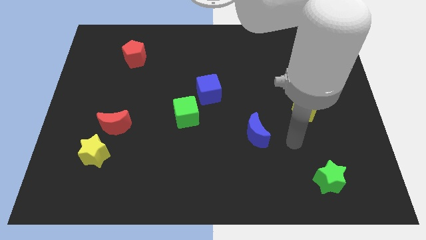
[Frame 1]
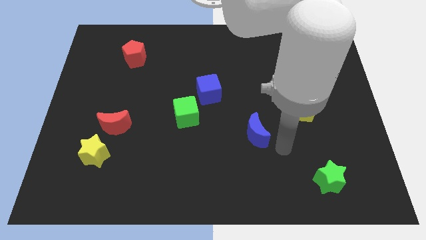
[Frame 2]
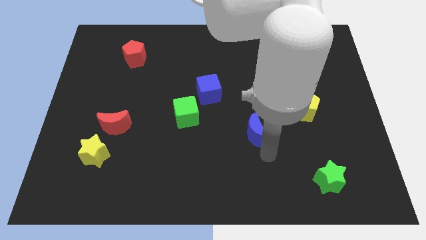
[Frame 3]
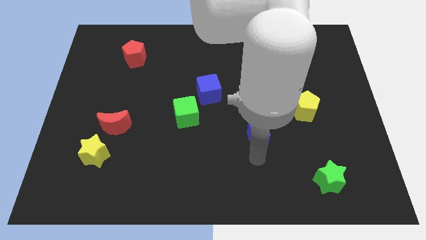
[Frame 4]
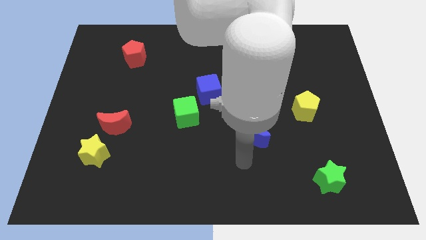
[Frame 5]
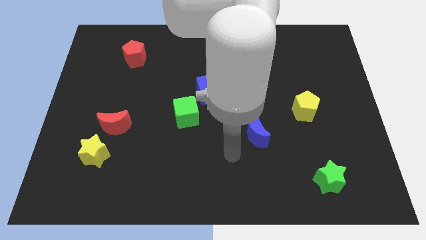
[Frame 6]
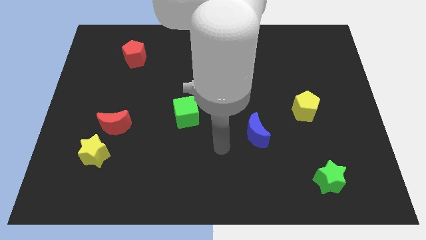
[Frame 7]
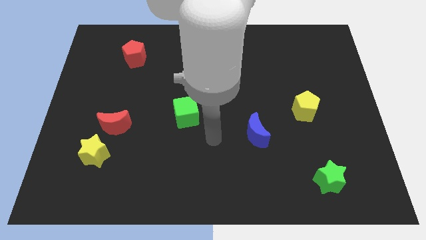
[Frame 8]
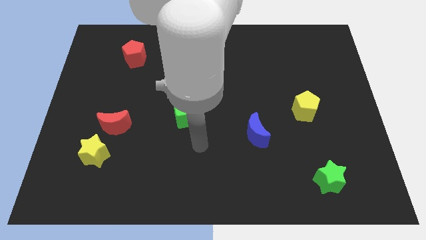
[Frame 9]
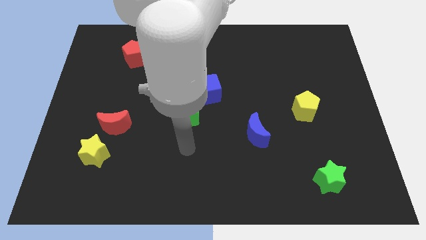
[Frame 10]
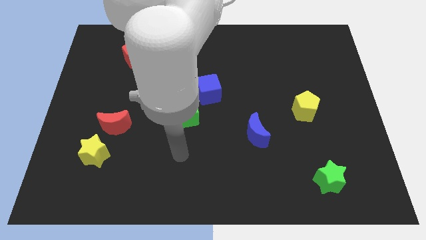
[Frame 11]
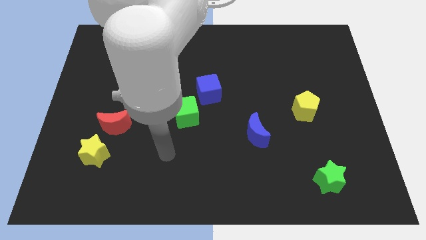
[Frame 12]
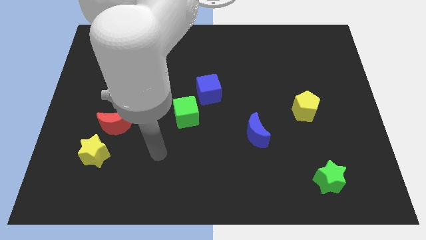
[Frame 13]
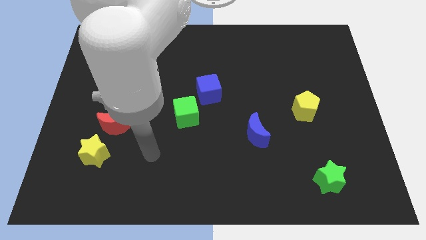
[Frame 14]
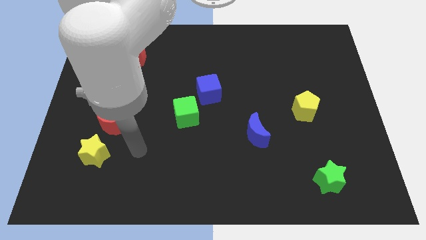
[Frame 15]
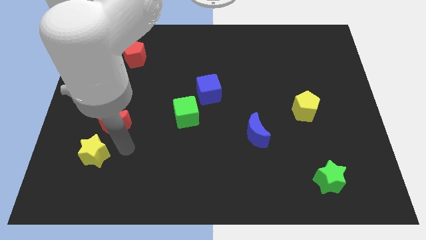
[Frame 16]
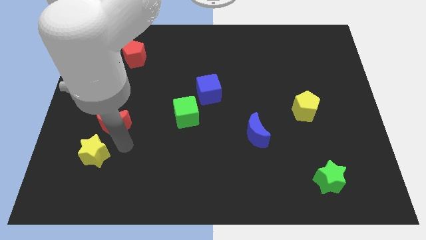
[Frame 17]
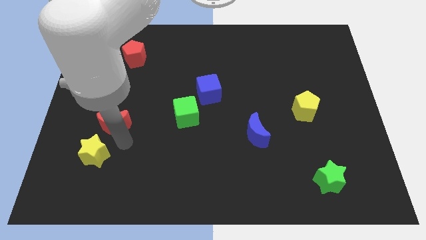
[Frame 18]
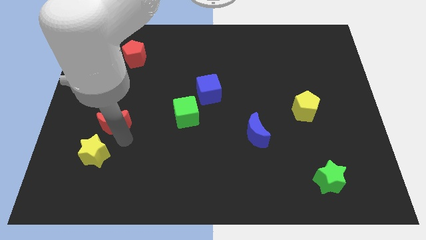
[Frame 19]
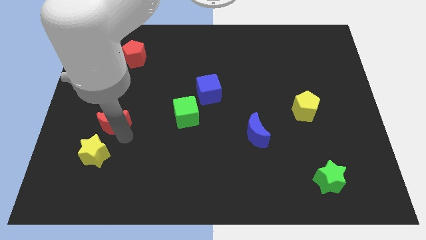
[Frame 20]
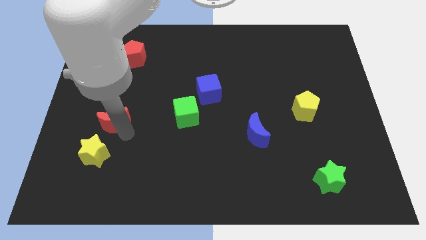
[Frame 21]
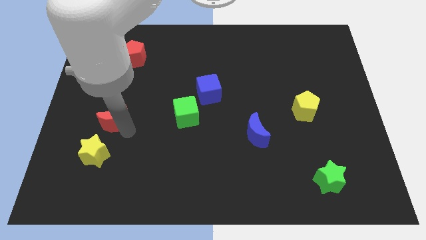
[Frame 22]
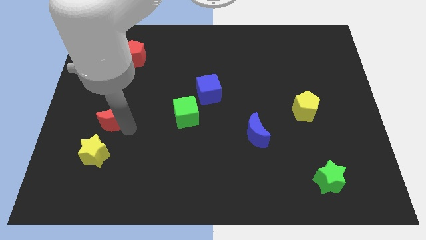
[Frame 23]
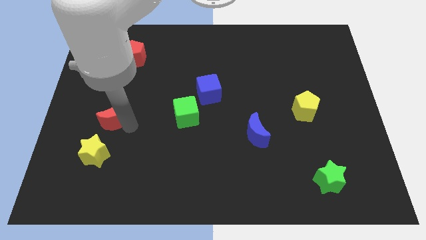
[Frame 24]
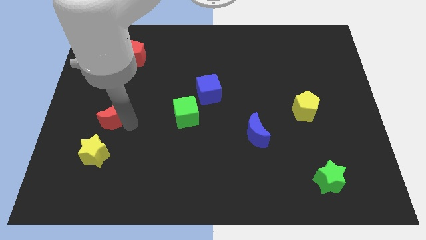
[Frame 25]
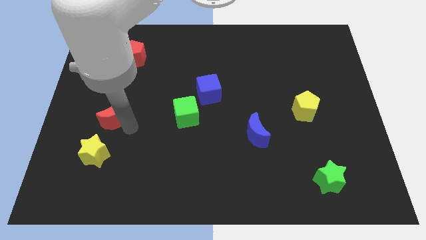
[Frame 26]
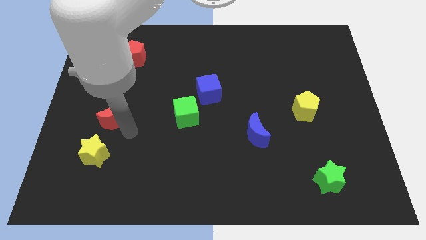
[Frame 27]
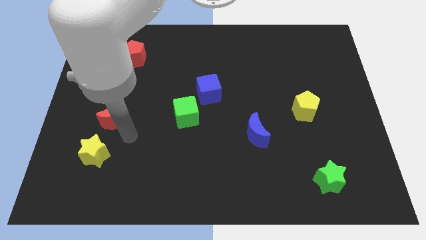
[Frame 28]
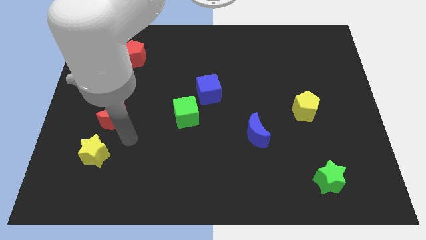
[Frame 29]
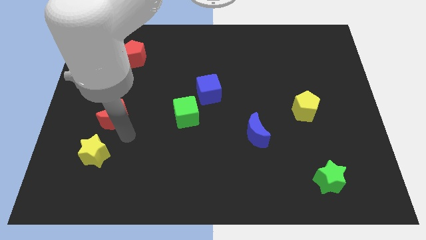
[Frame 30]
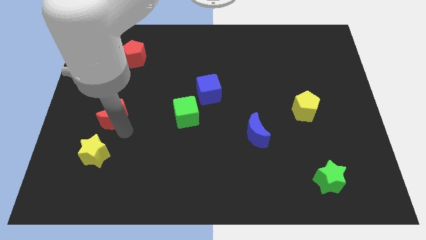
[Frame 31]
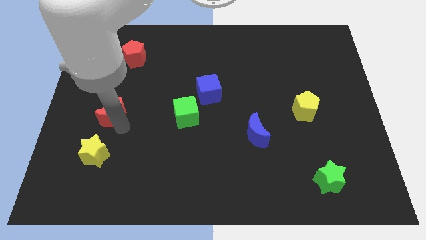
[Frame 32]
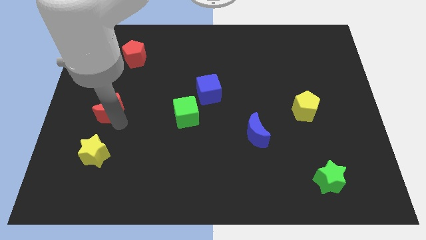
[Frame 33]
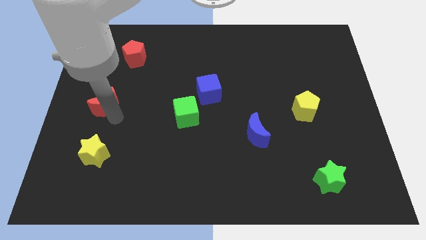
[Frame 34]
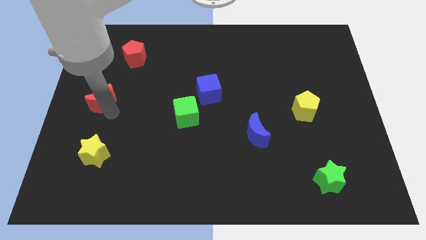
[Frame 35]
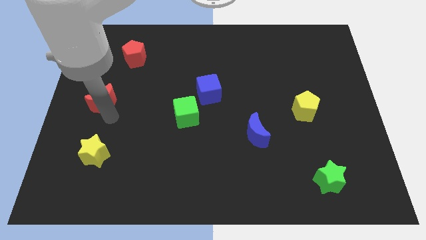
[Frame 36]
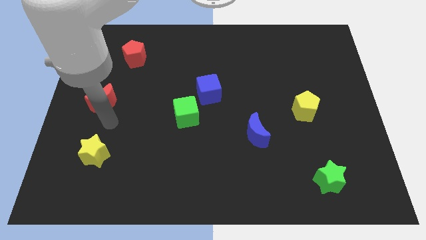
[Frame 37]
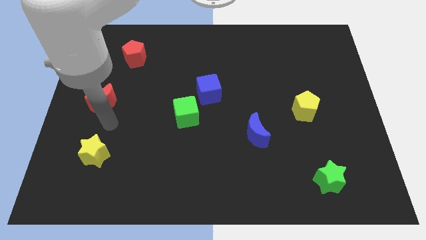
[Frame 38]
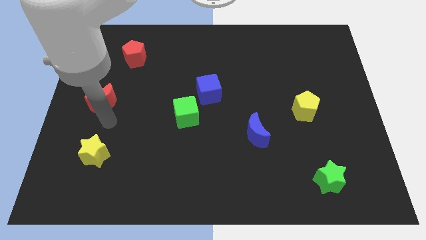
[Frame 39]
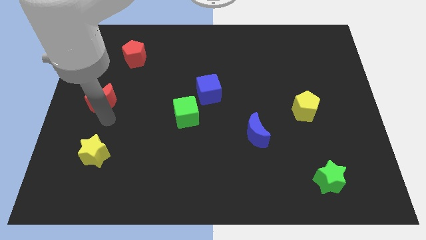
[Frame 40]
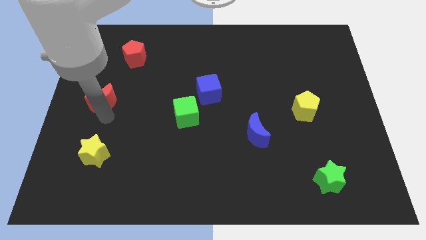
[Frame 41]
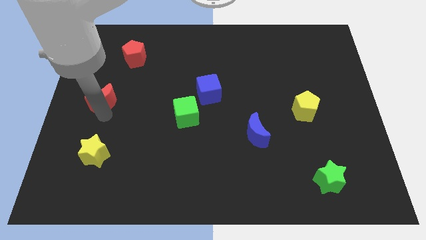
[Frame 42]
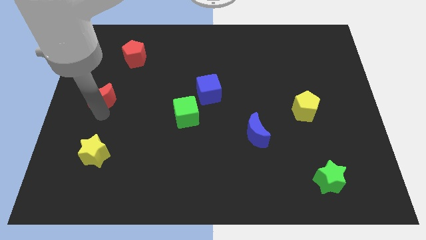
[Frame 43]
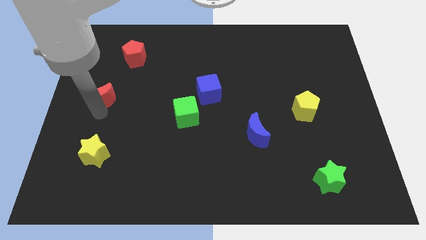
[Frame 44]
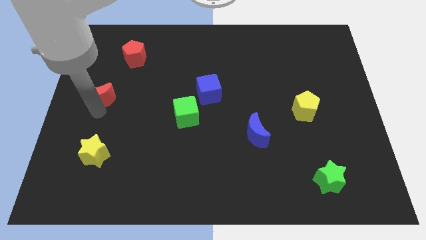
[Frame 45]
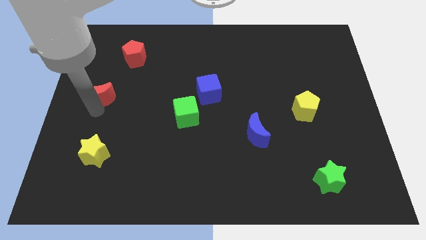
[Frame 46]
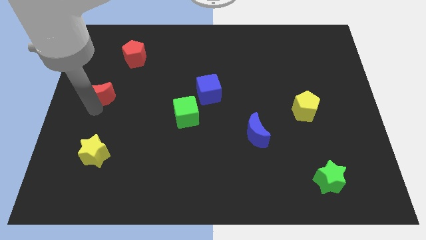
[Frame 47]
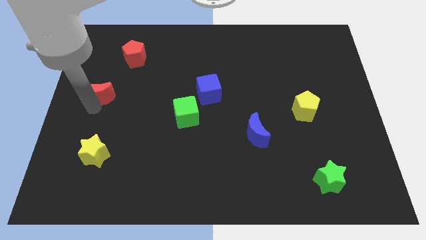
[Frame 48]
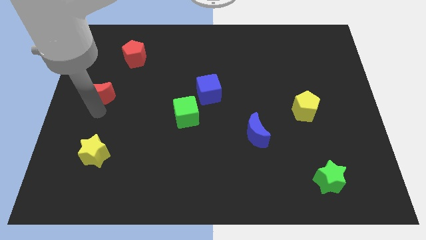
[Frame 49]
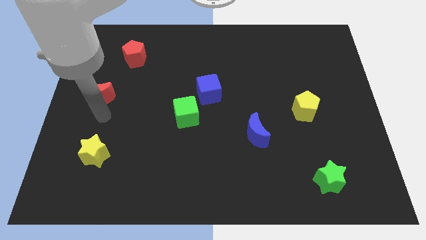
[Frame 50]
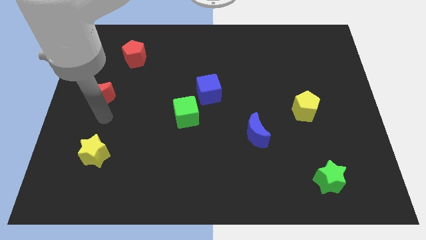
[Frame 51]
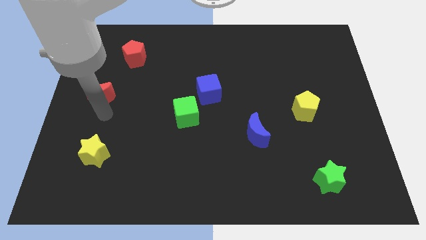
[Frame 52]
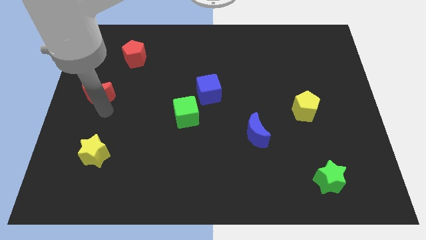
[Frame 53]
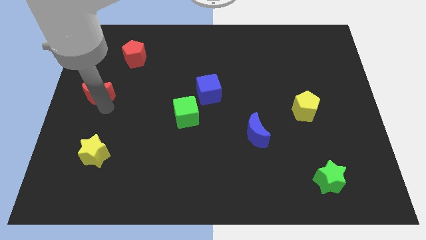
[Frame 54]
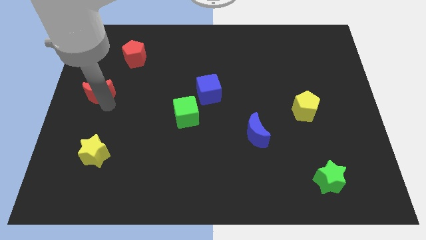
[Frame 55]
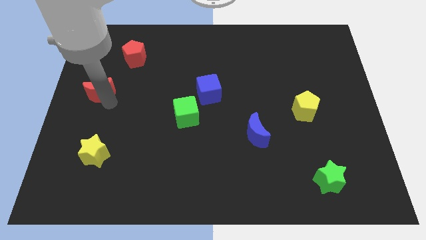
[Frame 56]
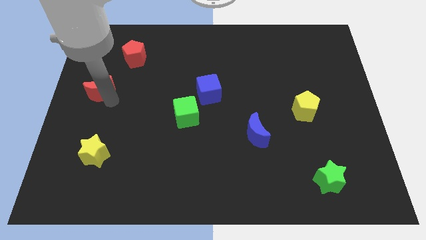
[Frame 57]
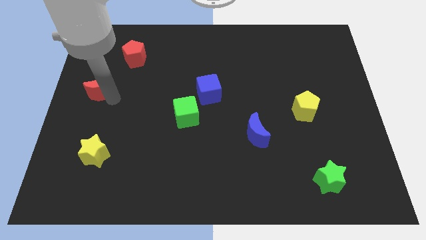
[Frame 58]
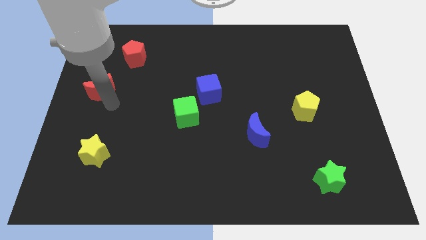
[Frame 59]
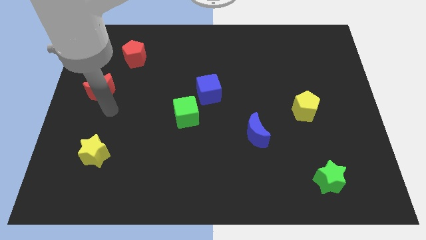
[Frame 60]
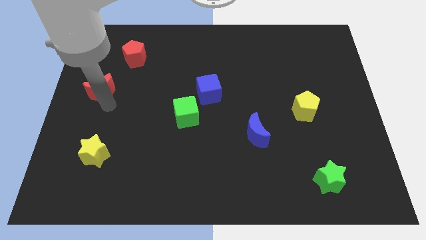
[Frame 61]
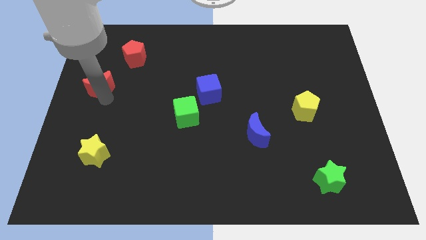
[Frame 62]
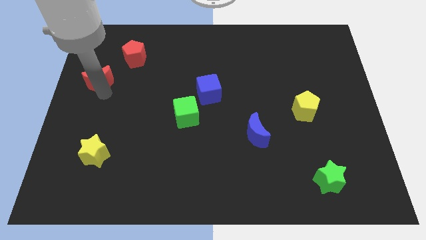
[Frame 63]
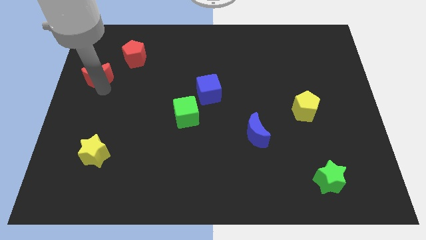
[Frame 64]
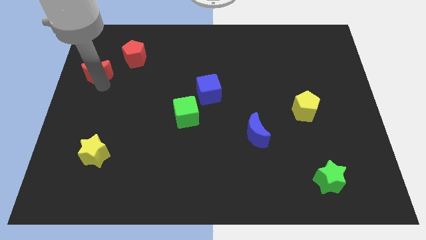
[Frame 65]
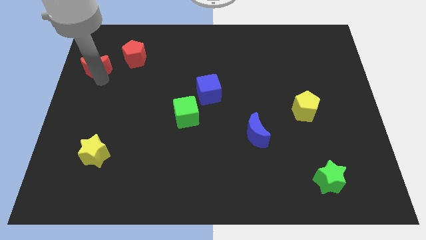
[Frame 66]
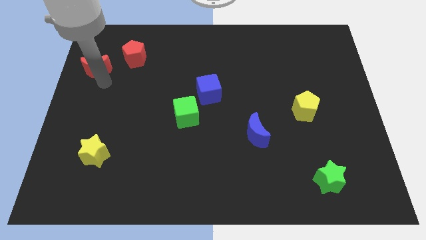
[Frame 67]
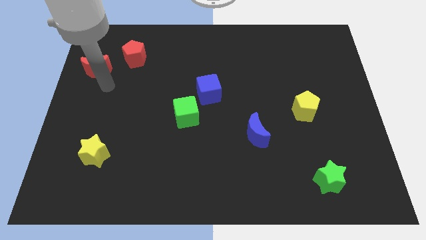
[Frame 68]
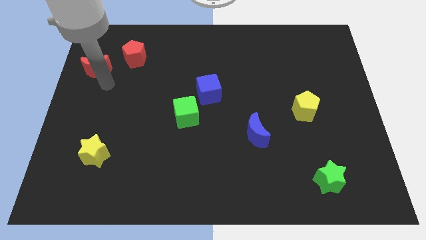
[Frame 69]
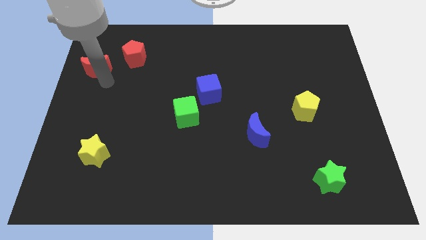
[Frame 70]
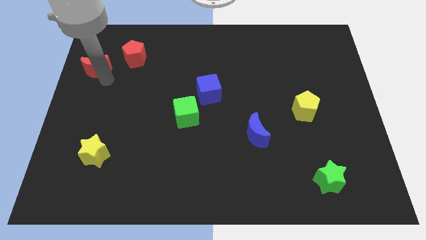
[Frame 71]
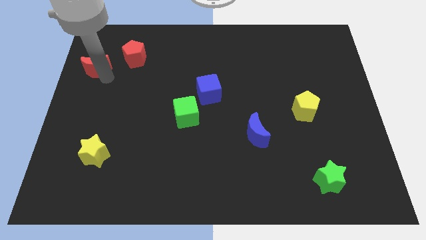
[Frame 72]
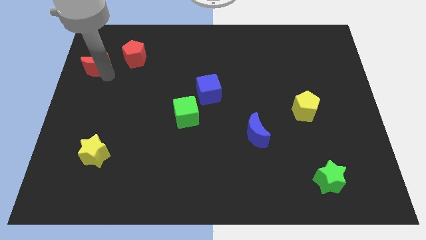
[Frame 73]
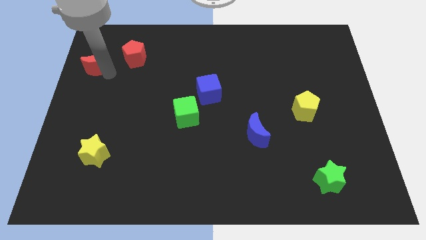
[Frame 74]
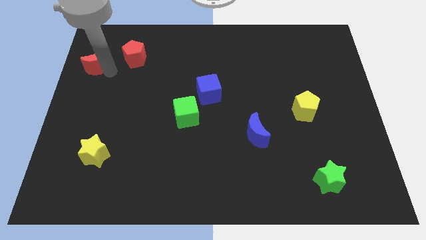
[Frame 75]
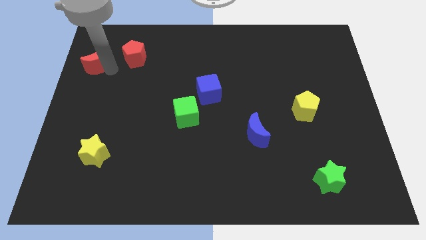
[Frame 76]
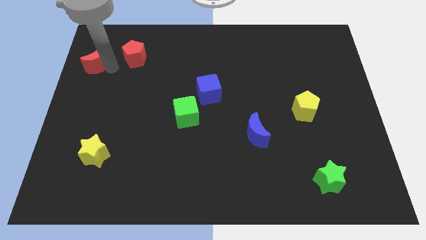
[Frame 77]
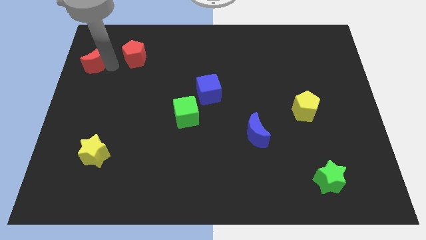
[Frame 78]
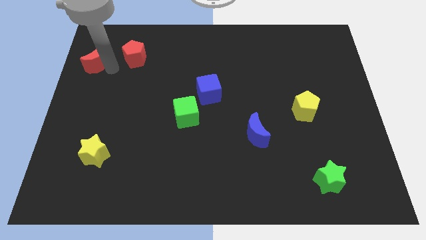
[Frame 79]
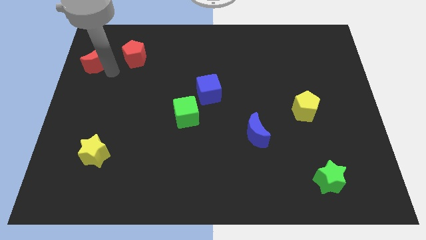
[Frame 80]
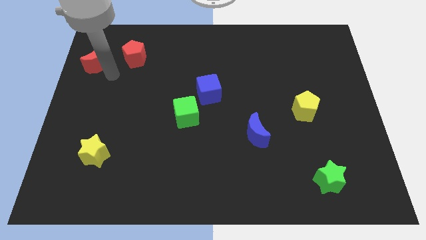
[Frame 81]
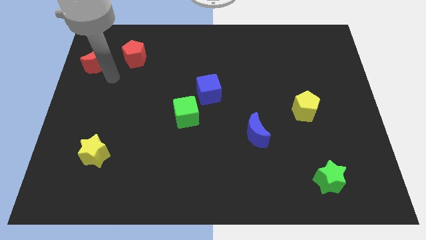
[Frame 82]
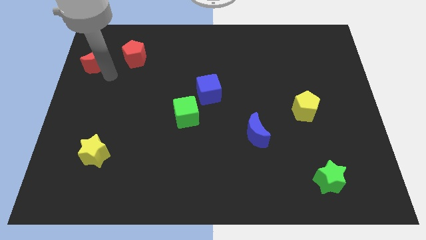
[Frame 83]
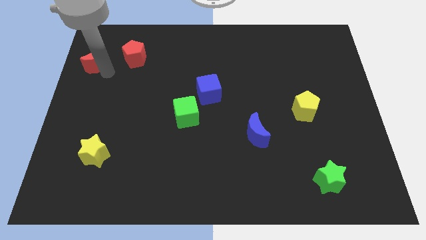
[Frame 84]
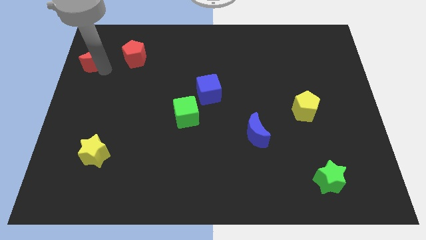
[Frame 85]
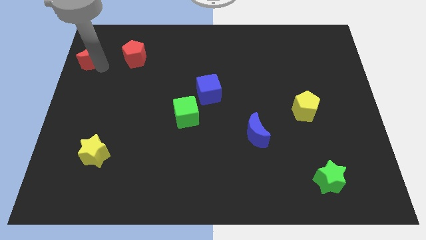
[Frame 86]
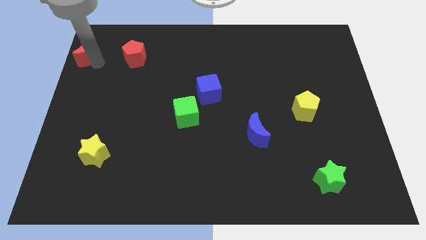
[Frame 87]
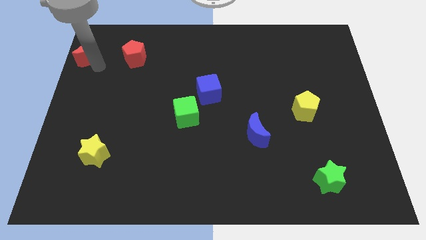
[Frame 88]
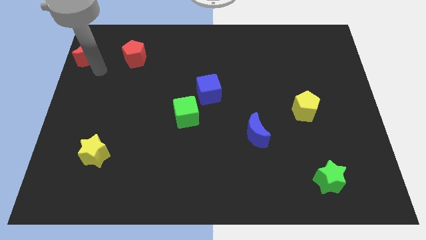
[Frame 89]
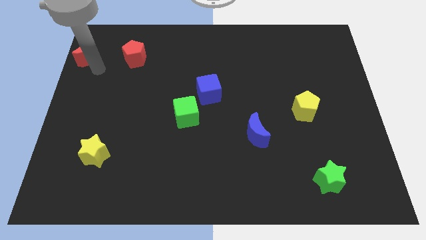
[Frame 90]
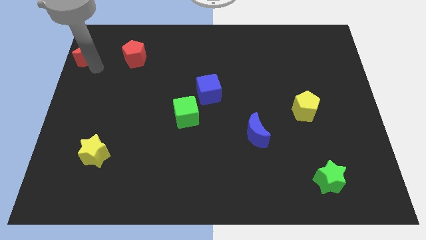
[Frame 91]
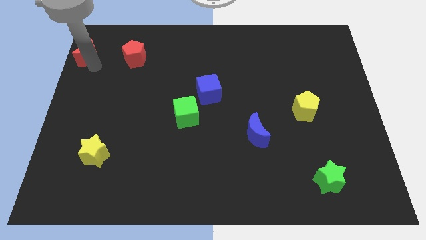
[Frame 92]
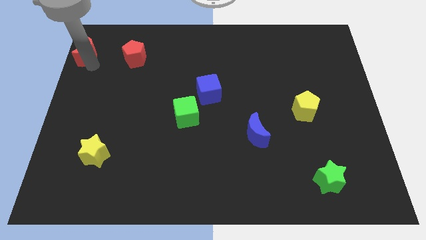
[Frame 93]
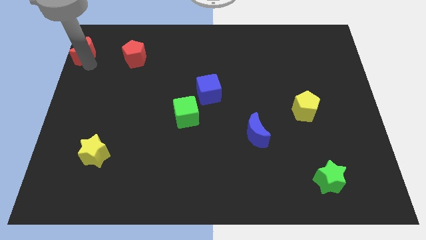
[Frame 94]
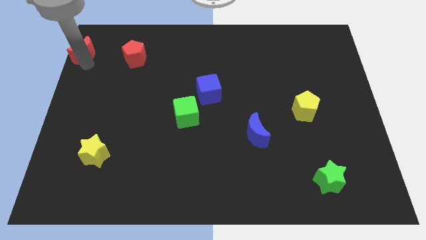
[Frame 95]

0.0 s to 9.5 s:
slide the red moon to the top left corner
